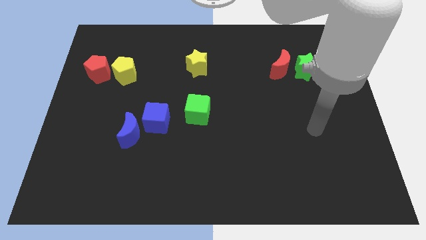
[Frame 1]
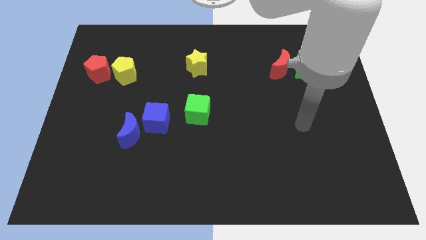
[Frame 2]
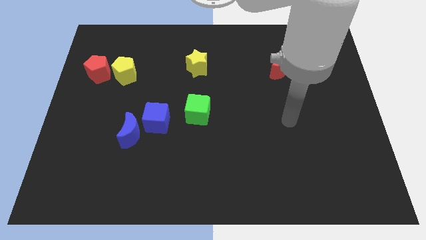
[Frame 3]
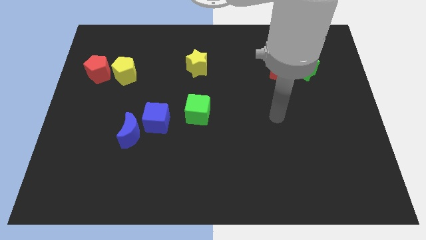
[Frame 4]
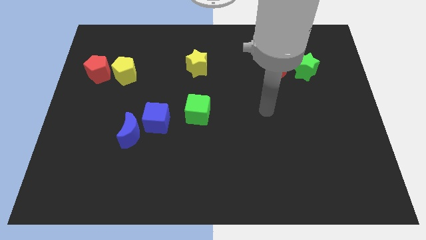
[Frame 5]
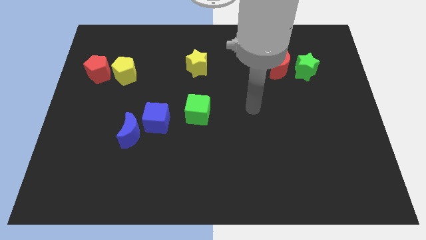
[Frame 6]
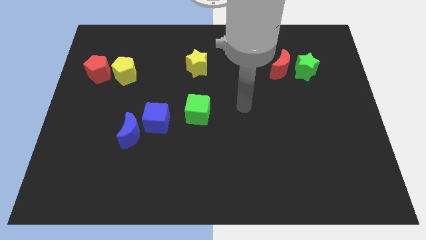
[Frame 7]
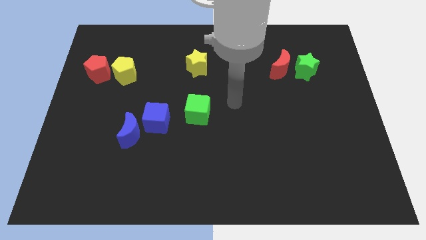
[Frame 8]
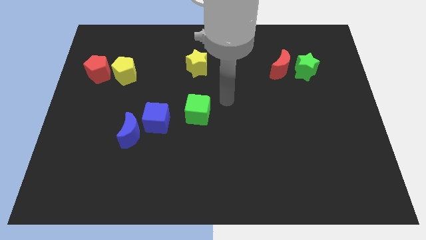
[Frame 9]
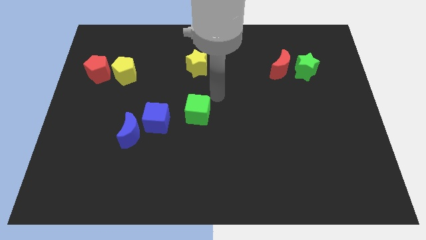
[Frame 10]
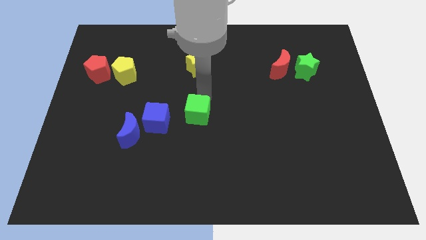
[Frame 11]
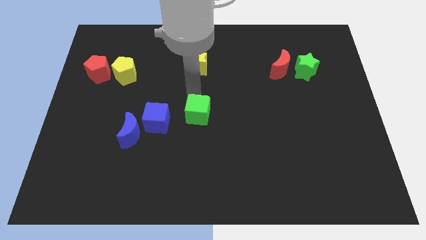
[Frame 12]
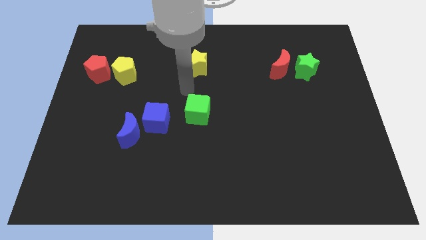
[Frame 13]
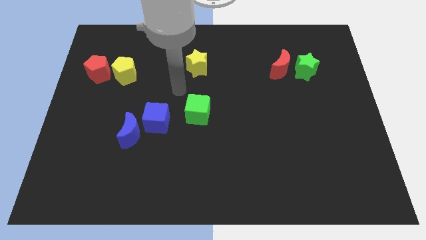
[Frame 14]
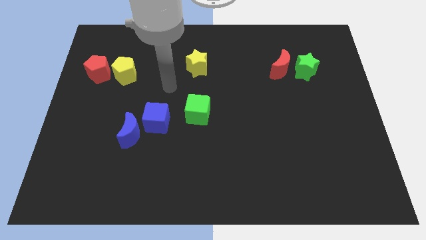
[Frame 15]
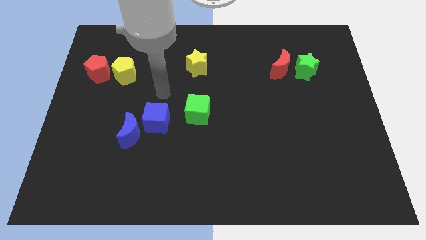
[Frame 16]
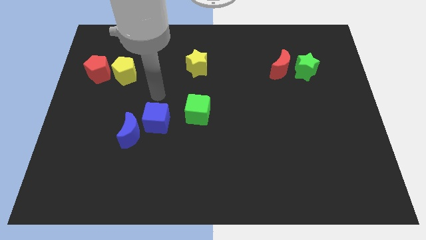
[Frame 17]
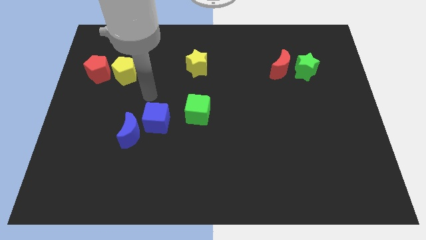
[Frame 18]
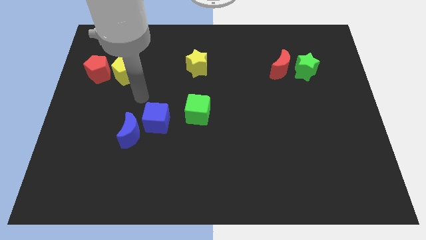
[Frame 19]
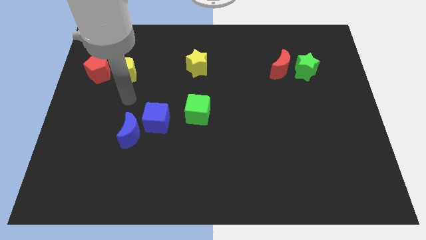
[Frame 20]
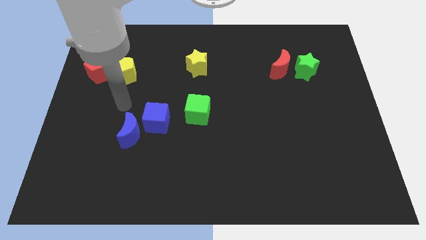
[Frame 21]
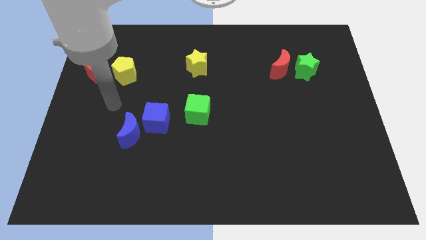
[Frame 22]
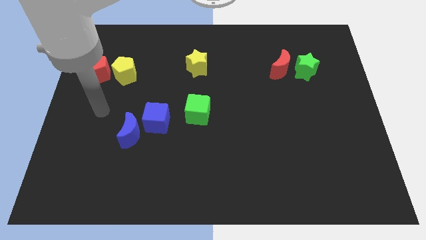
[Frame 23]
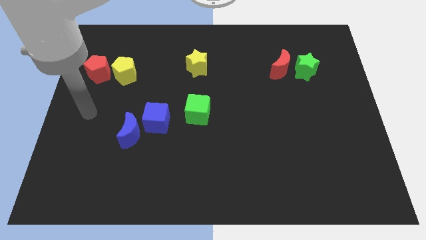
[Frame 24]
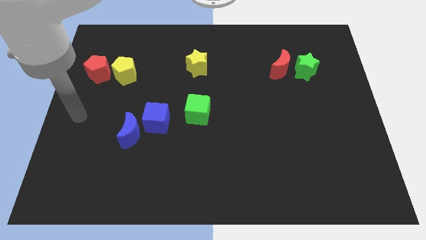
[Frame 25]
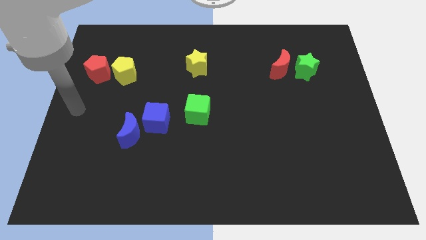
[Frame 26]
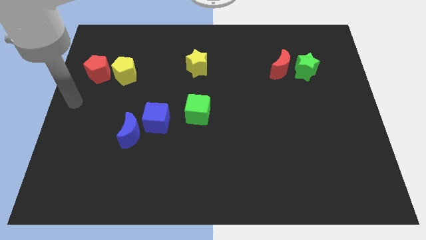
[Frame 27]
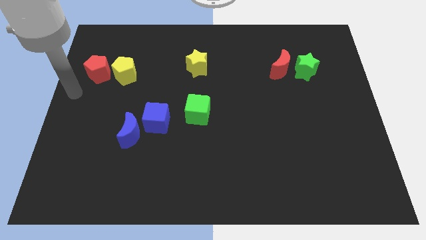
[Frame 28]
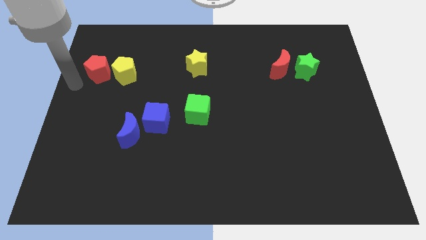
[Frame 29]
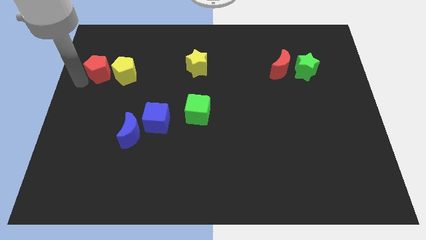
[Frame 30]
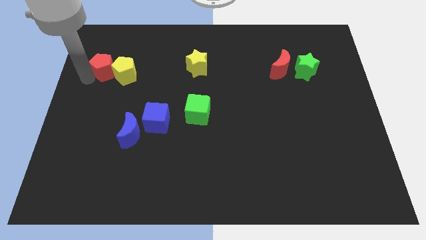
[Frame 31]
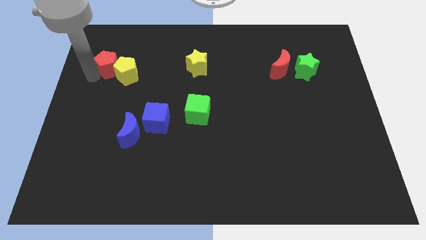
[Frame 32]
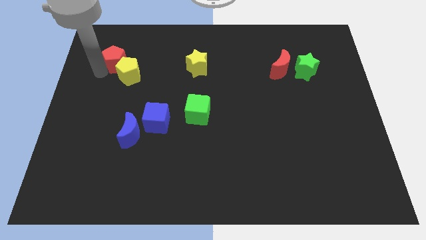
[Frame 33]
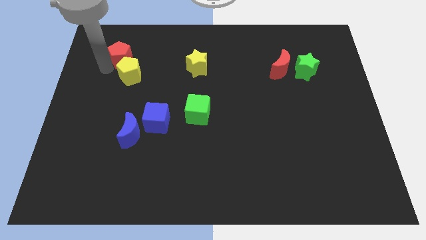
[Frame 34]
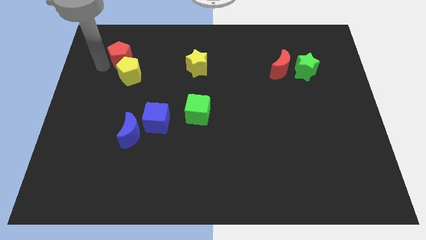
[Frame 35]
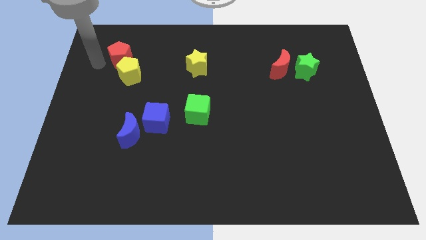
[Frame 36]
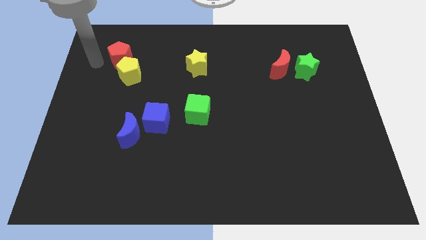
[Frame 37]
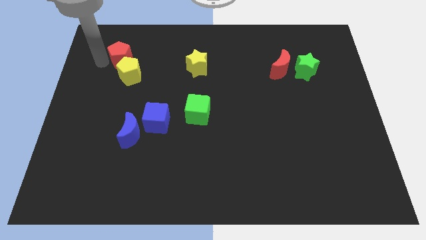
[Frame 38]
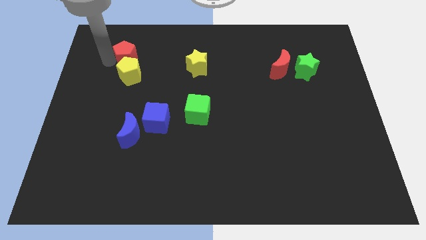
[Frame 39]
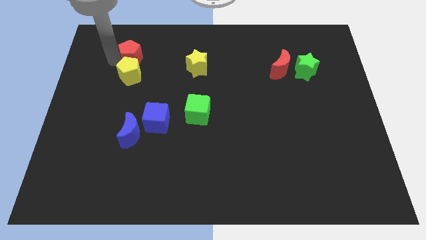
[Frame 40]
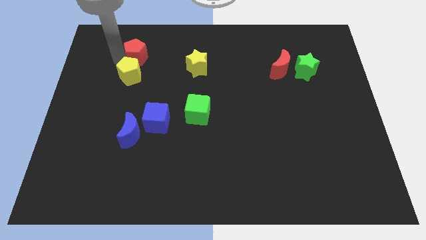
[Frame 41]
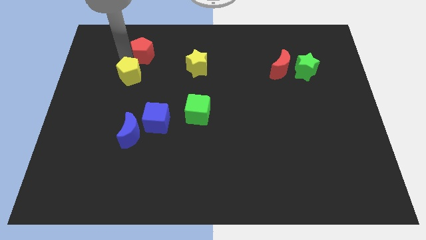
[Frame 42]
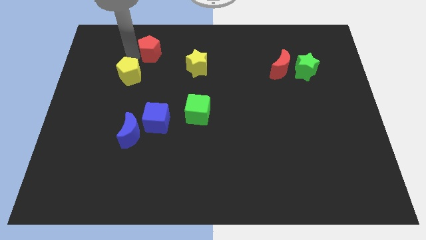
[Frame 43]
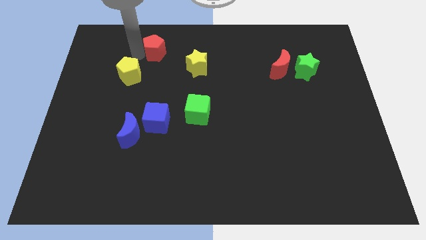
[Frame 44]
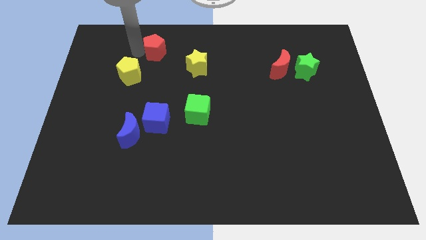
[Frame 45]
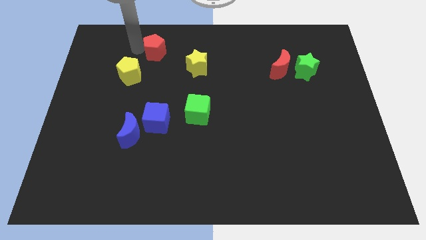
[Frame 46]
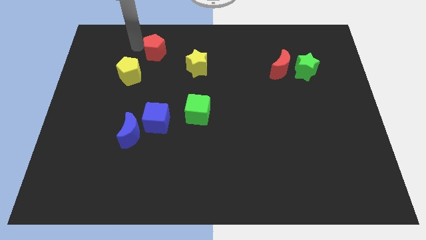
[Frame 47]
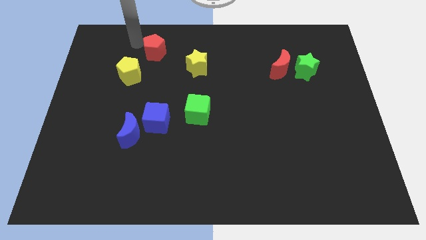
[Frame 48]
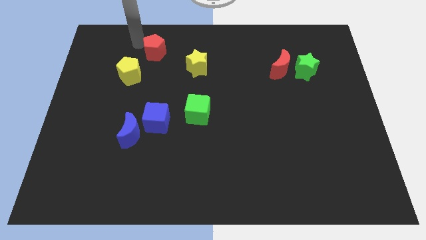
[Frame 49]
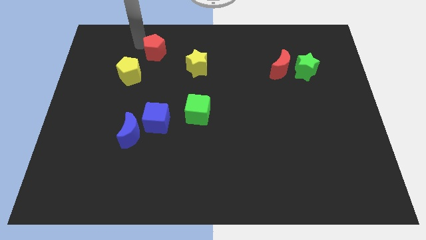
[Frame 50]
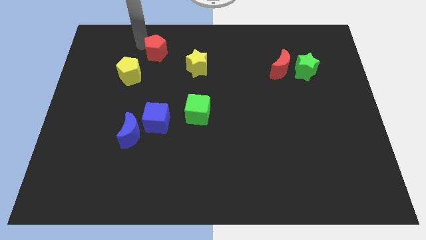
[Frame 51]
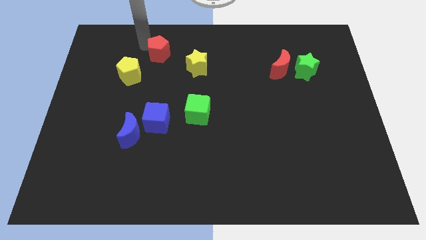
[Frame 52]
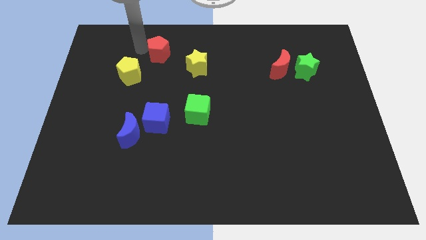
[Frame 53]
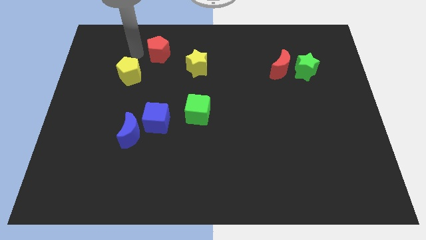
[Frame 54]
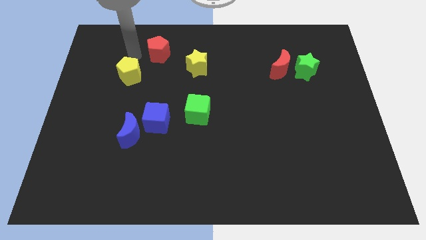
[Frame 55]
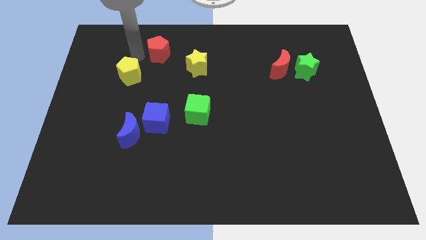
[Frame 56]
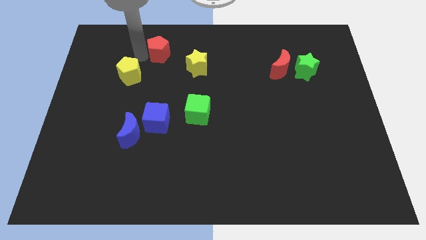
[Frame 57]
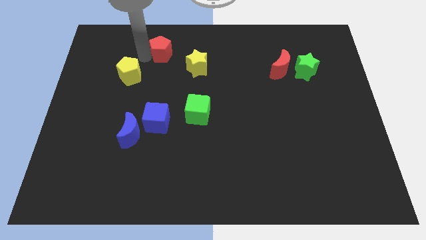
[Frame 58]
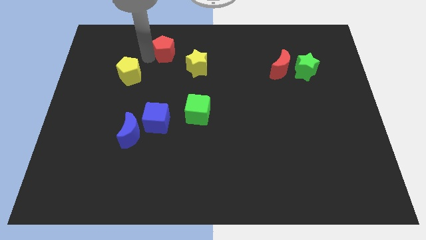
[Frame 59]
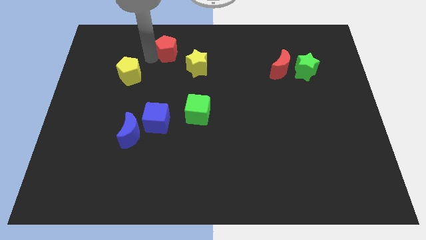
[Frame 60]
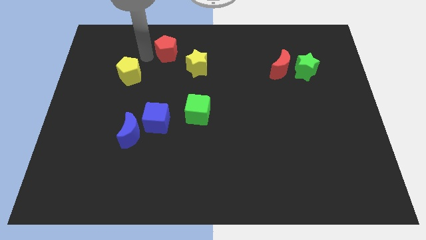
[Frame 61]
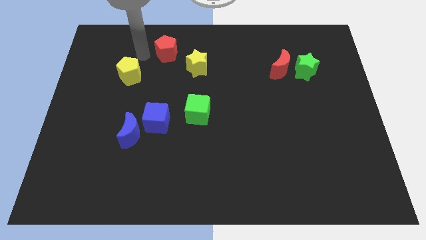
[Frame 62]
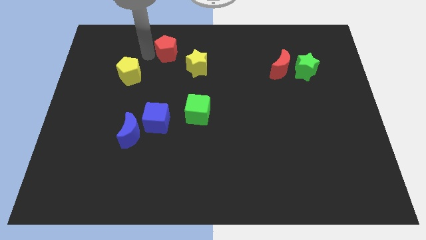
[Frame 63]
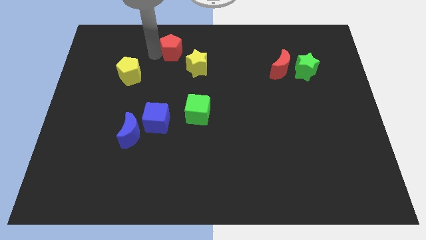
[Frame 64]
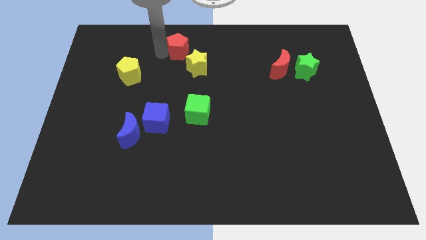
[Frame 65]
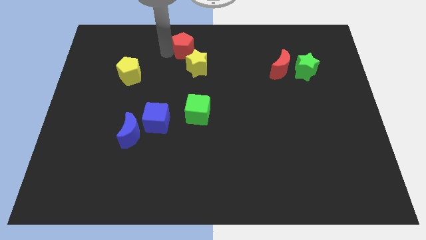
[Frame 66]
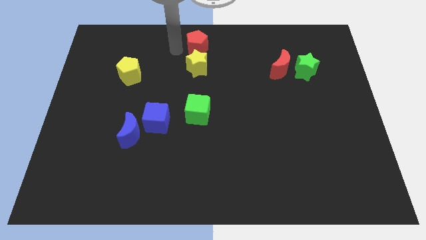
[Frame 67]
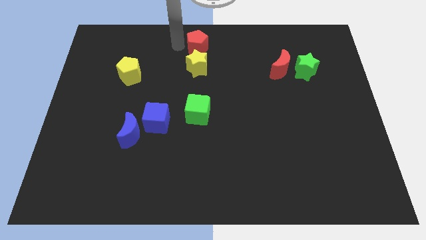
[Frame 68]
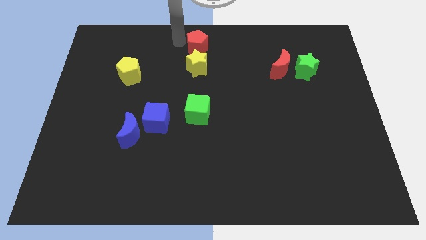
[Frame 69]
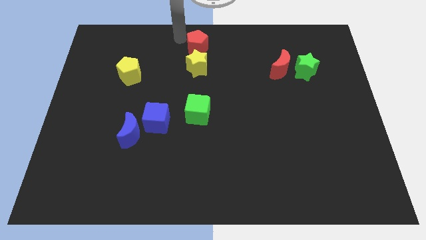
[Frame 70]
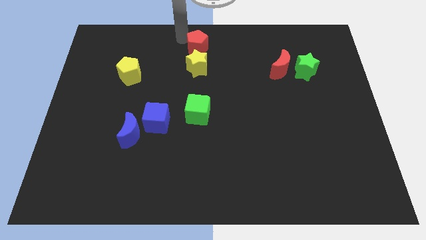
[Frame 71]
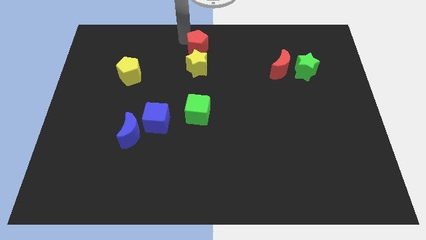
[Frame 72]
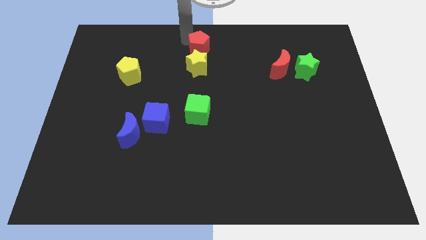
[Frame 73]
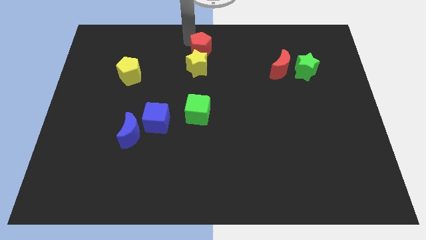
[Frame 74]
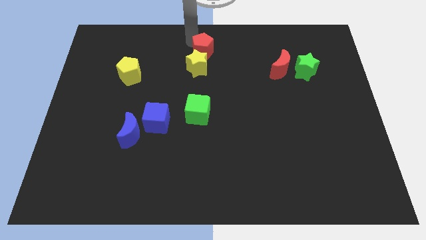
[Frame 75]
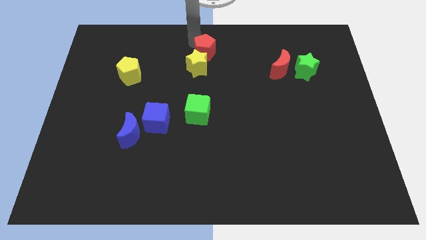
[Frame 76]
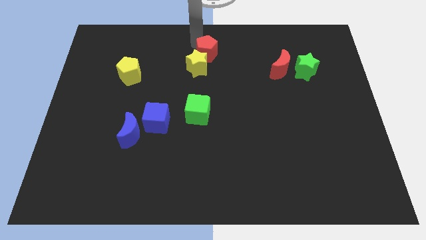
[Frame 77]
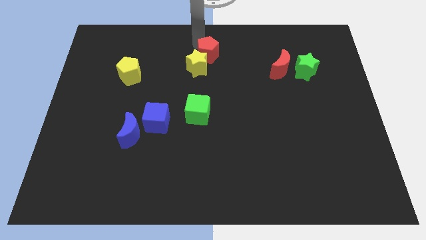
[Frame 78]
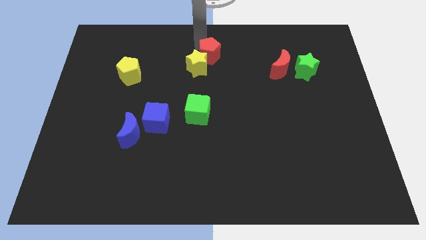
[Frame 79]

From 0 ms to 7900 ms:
put the red pentagon just right of the yellow star
